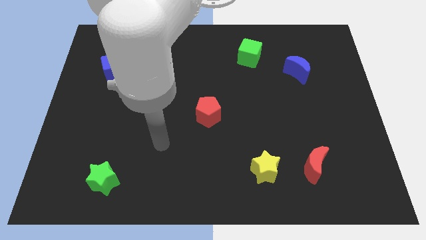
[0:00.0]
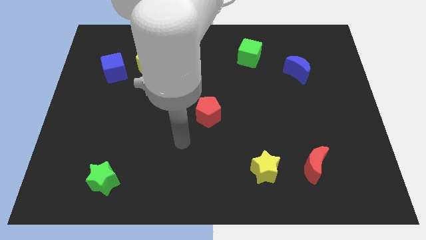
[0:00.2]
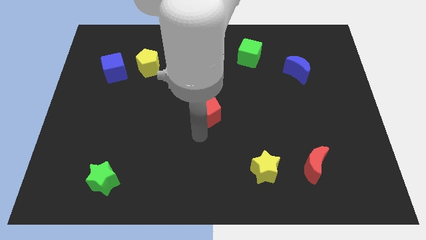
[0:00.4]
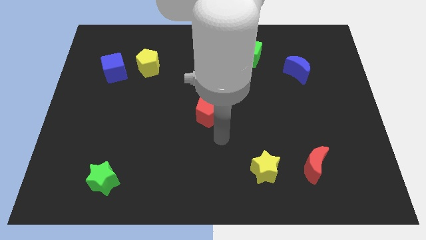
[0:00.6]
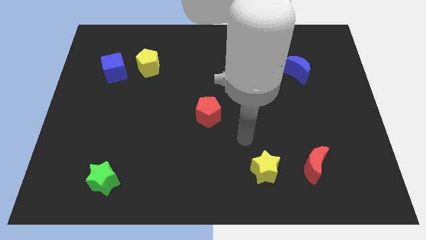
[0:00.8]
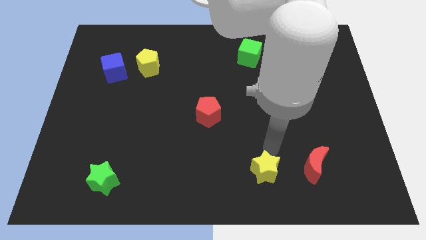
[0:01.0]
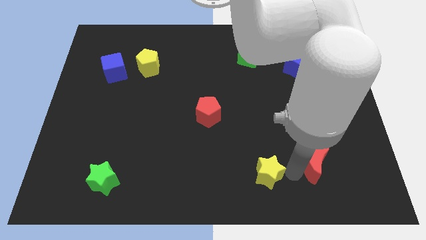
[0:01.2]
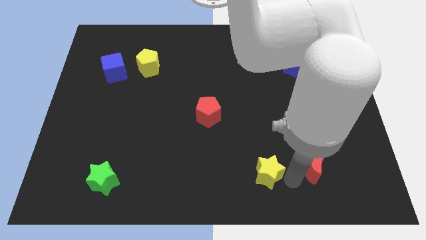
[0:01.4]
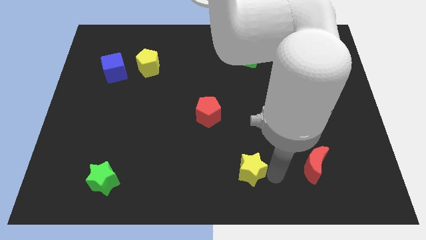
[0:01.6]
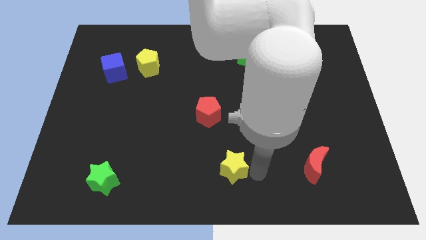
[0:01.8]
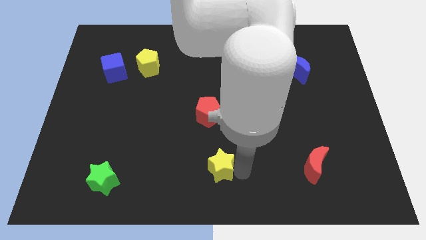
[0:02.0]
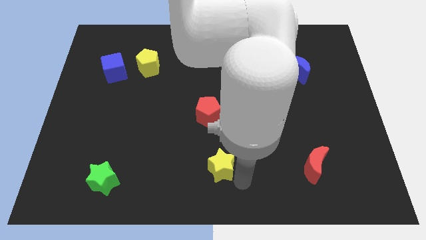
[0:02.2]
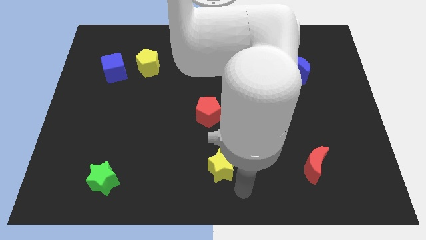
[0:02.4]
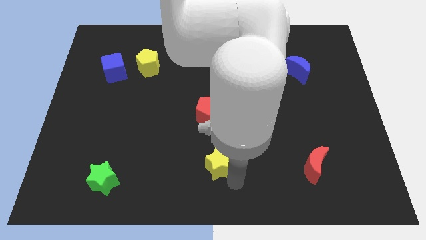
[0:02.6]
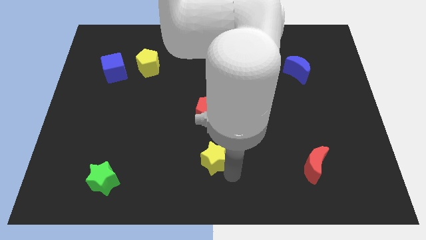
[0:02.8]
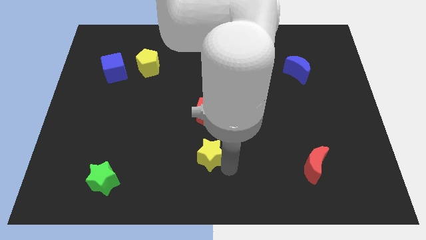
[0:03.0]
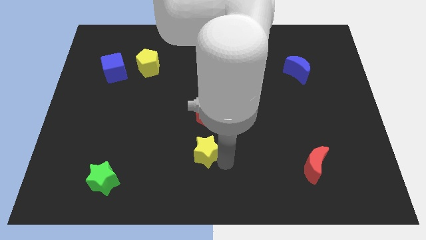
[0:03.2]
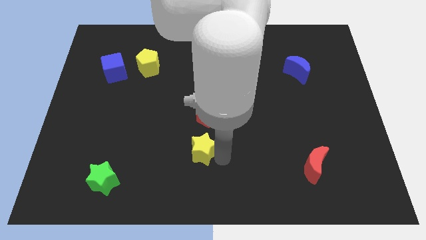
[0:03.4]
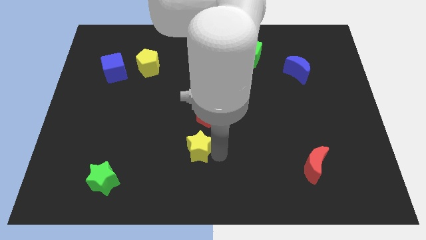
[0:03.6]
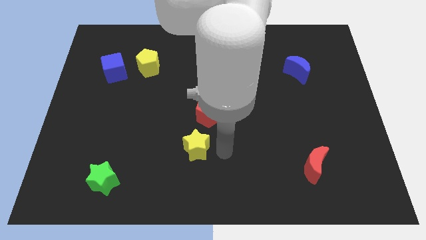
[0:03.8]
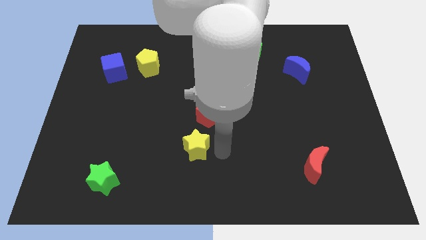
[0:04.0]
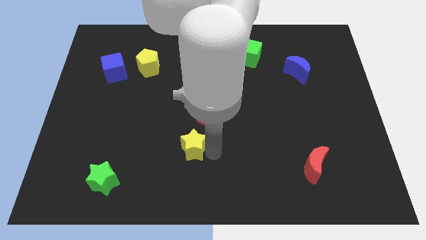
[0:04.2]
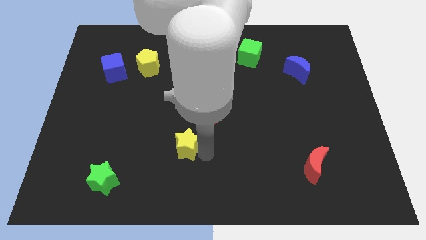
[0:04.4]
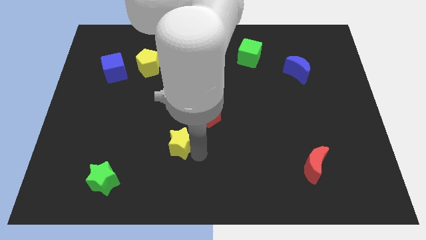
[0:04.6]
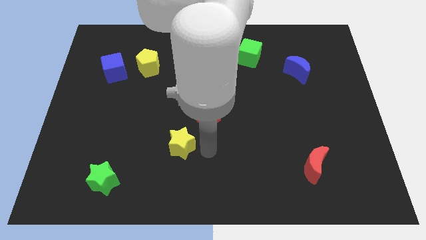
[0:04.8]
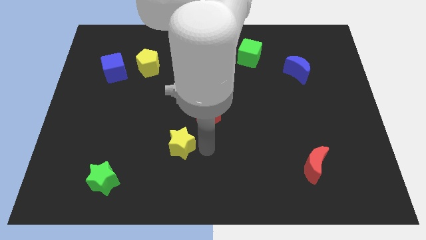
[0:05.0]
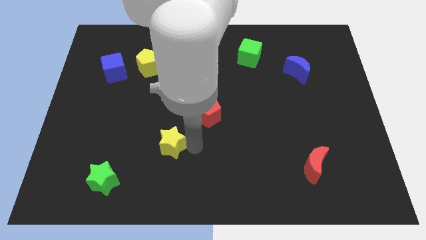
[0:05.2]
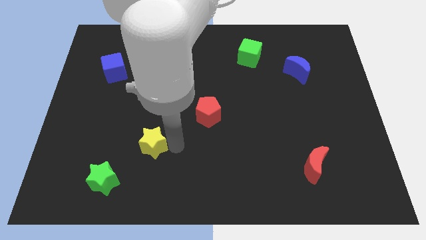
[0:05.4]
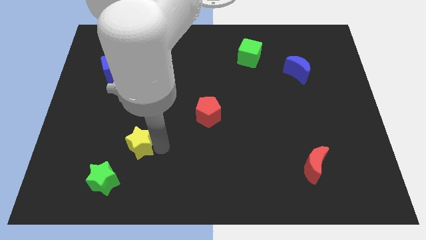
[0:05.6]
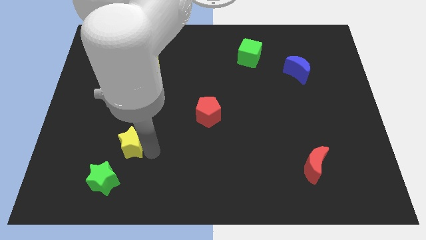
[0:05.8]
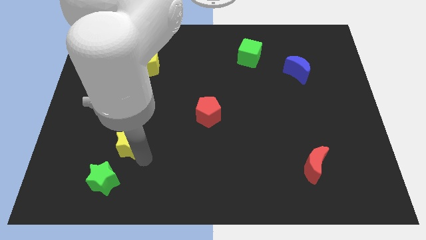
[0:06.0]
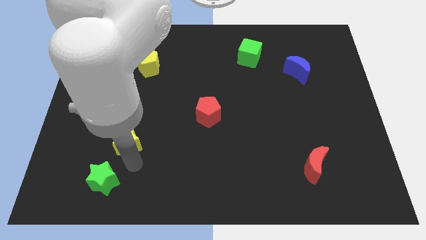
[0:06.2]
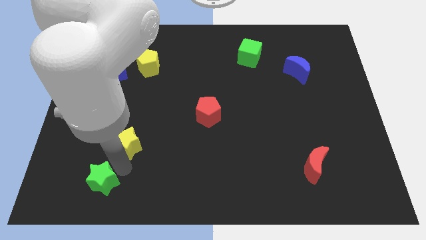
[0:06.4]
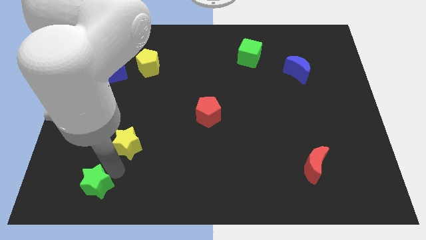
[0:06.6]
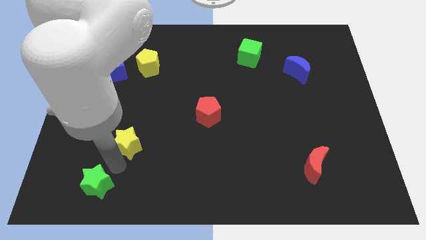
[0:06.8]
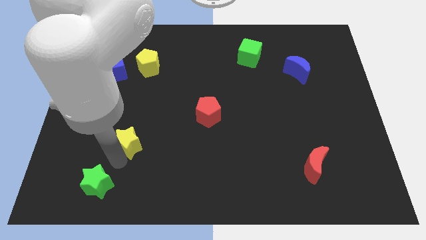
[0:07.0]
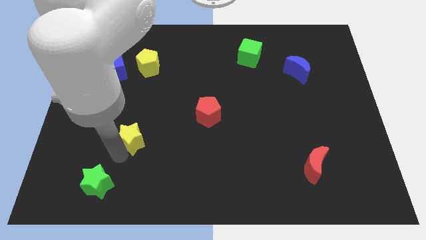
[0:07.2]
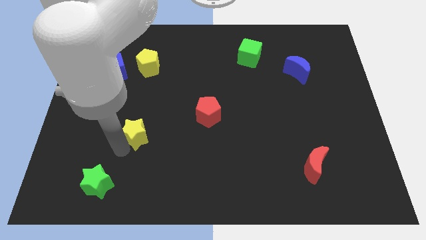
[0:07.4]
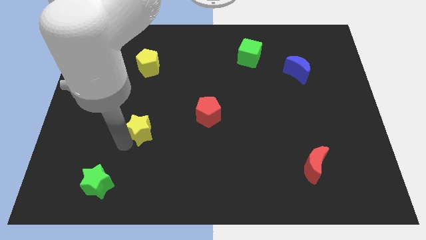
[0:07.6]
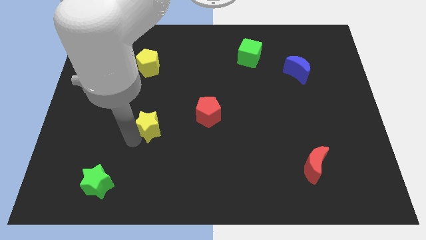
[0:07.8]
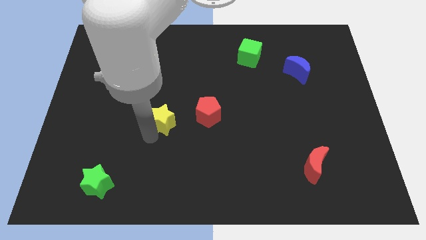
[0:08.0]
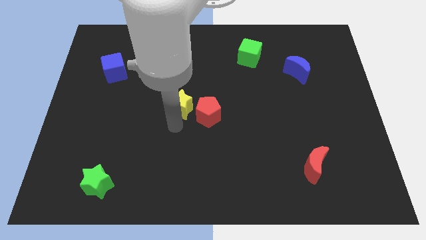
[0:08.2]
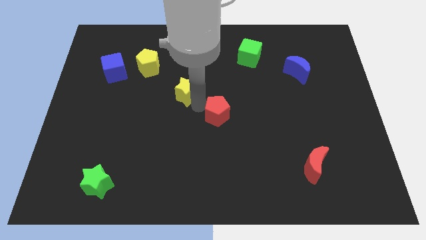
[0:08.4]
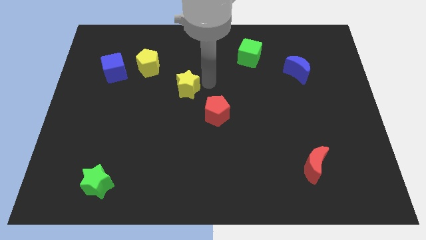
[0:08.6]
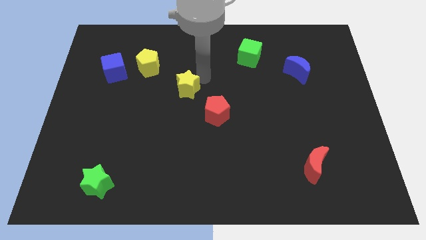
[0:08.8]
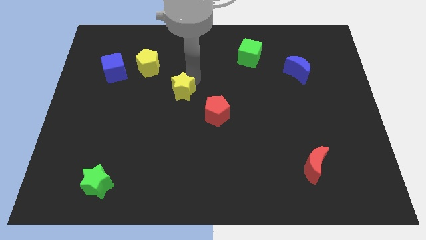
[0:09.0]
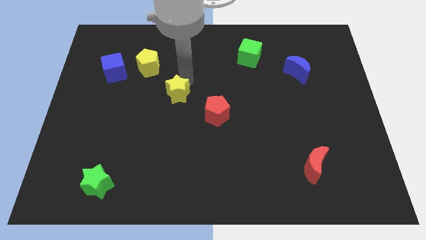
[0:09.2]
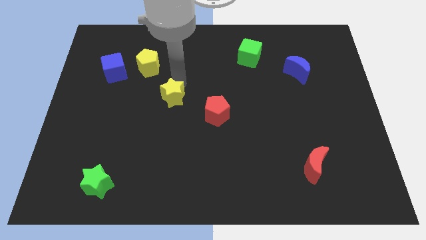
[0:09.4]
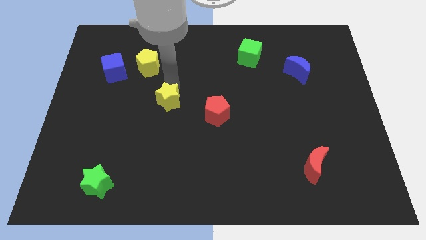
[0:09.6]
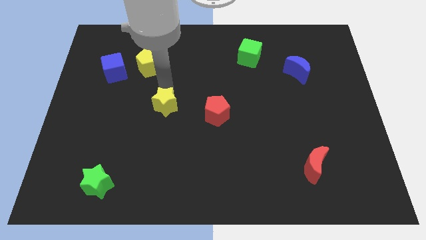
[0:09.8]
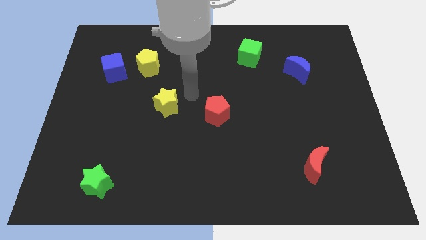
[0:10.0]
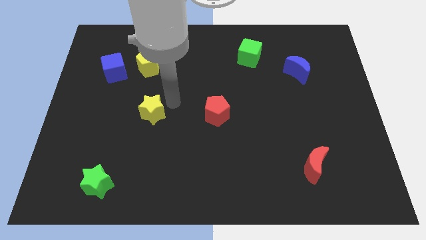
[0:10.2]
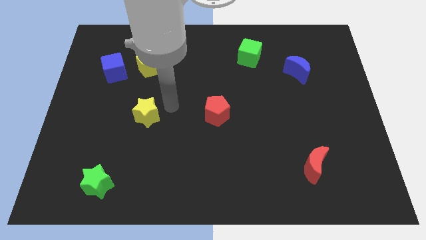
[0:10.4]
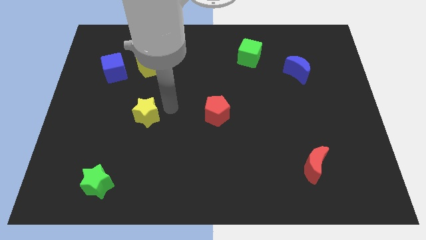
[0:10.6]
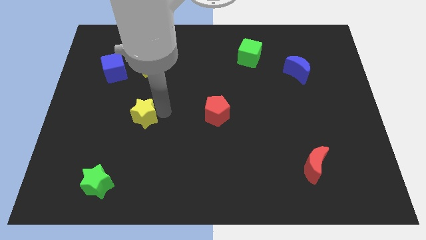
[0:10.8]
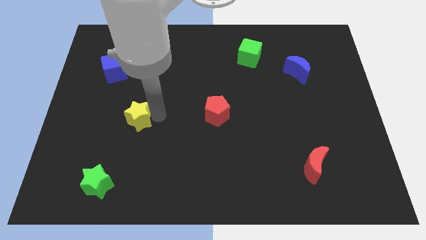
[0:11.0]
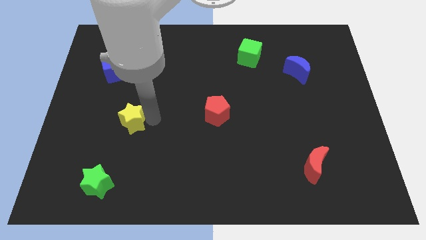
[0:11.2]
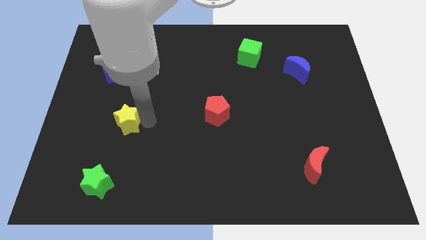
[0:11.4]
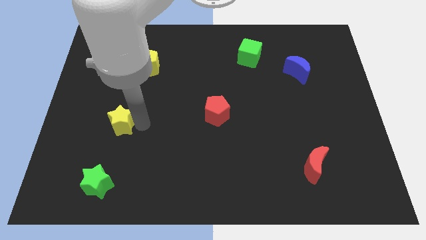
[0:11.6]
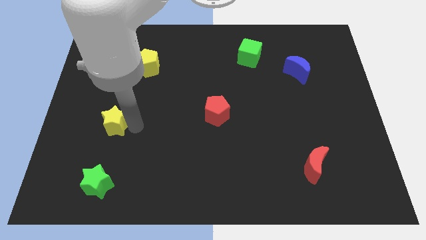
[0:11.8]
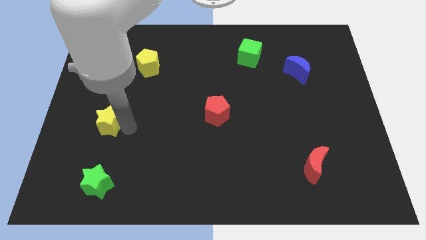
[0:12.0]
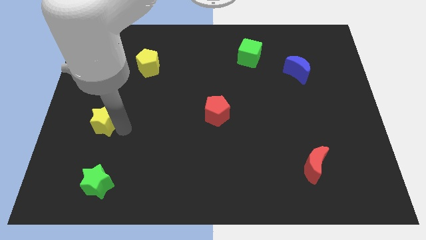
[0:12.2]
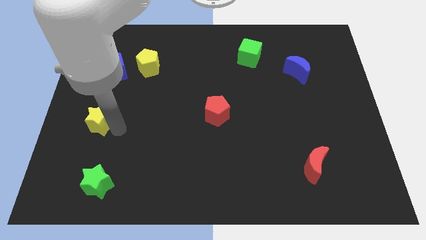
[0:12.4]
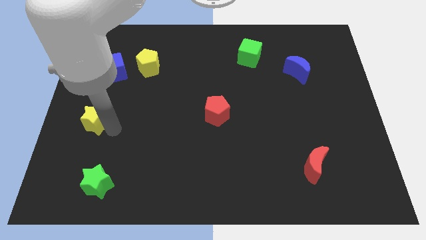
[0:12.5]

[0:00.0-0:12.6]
put the yellow star to the left side

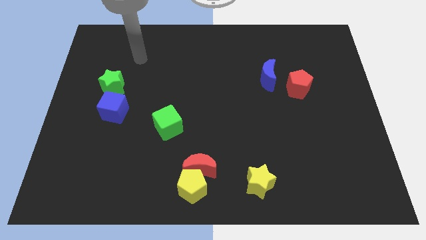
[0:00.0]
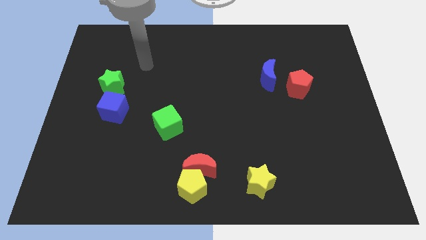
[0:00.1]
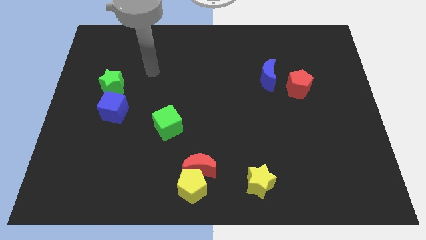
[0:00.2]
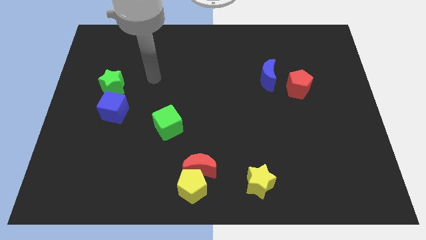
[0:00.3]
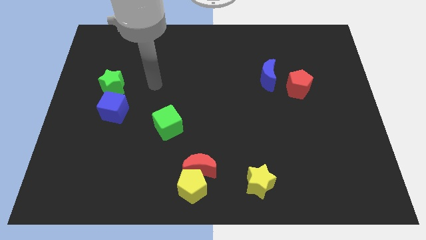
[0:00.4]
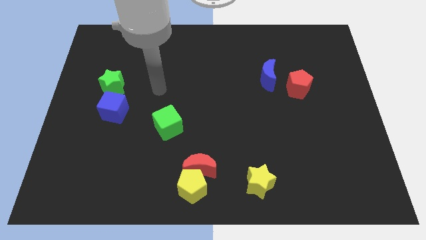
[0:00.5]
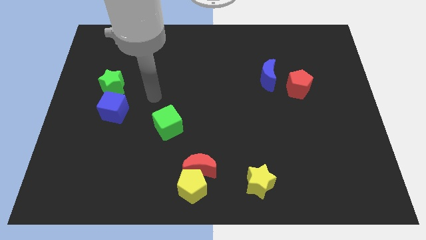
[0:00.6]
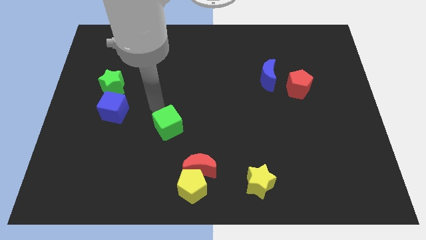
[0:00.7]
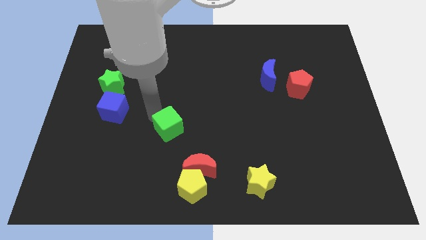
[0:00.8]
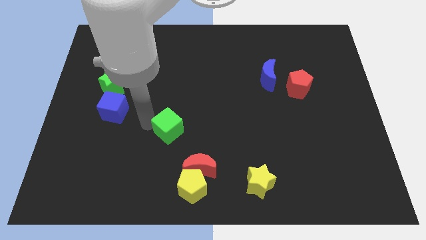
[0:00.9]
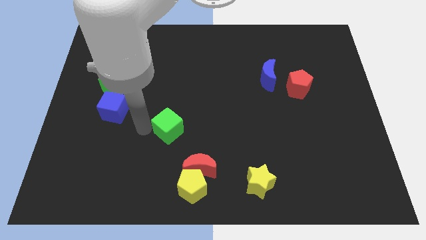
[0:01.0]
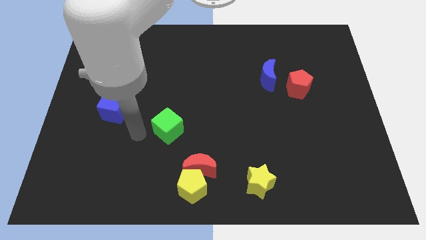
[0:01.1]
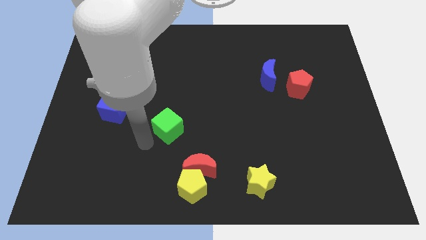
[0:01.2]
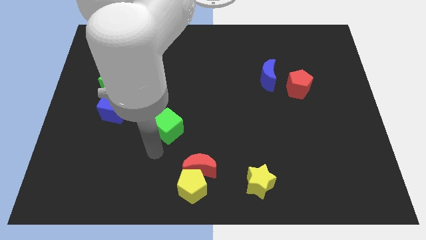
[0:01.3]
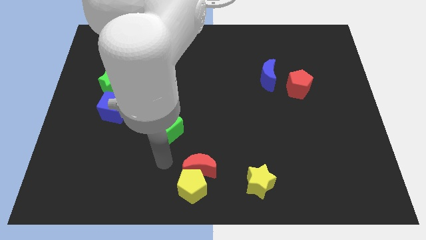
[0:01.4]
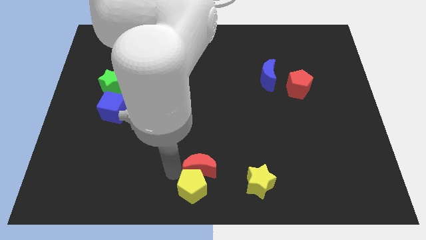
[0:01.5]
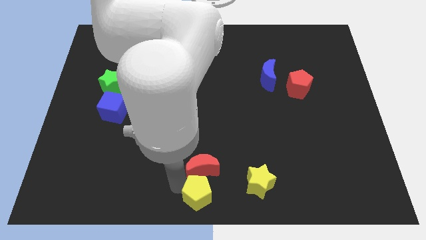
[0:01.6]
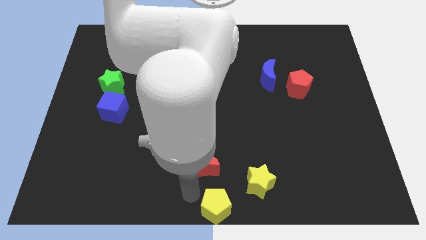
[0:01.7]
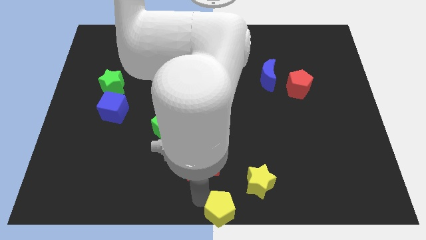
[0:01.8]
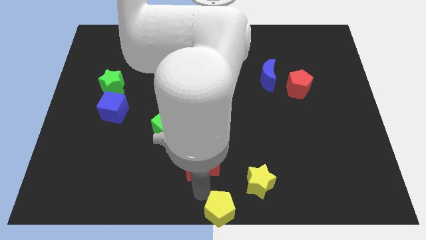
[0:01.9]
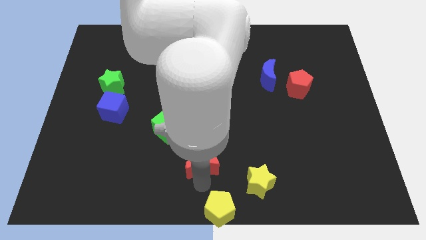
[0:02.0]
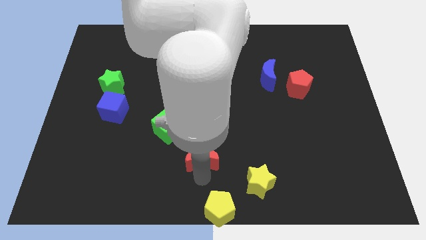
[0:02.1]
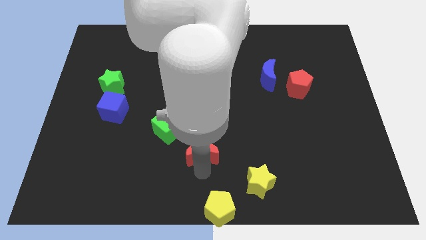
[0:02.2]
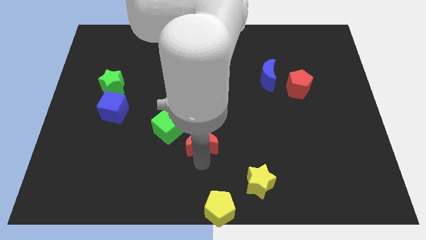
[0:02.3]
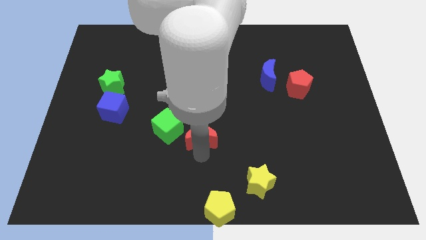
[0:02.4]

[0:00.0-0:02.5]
push the red moon to the middle
